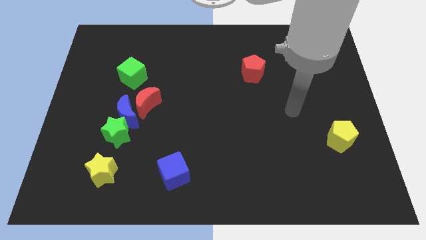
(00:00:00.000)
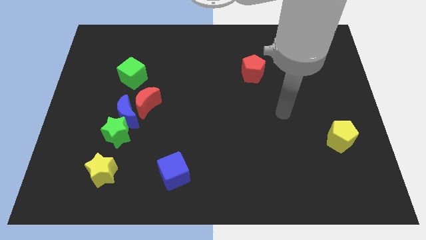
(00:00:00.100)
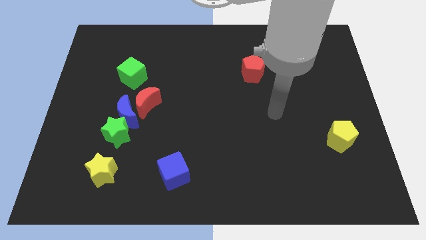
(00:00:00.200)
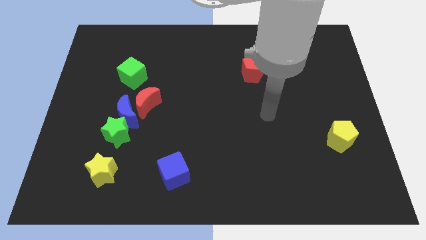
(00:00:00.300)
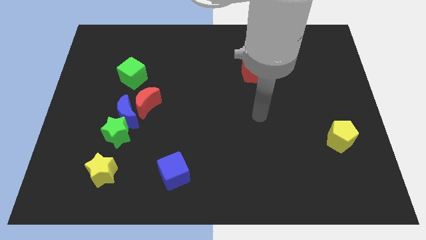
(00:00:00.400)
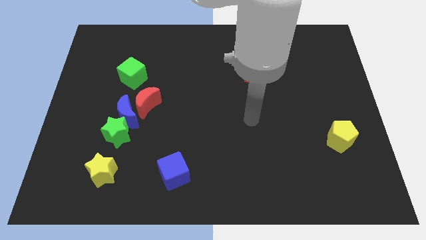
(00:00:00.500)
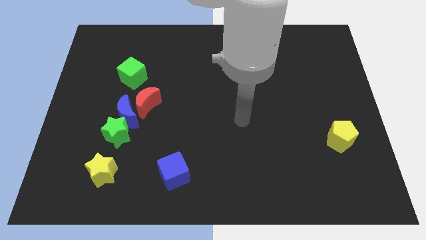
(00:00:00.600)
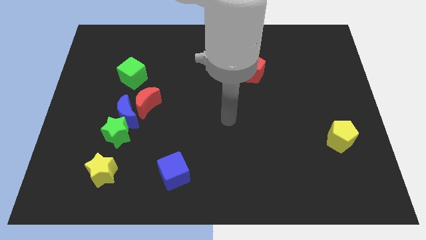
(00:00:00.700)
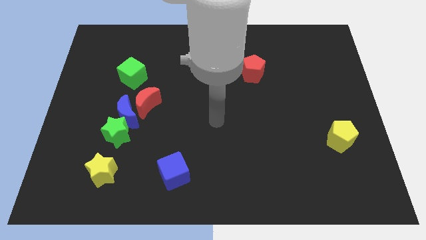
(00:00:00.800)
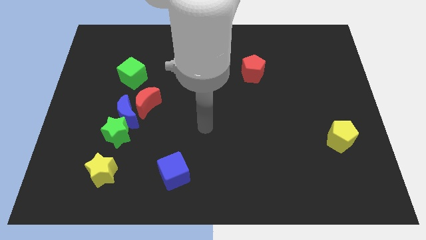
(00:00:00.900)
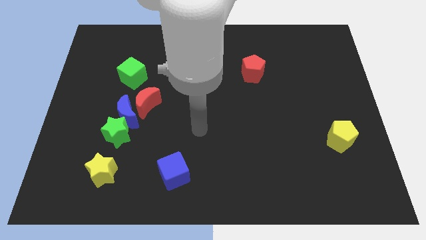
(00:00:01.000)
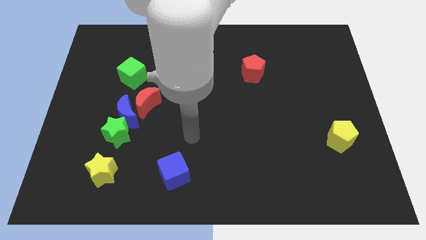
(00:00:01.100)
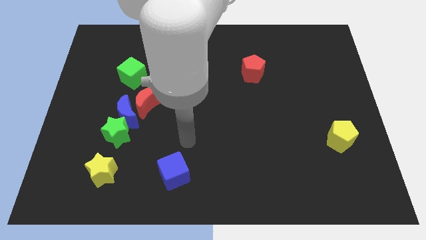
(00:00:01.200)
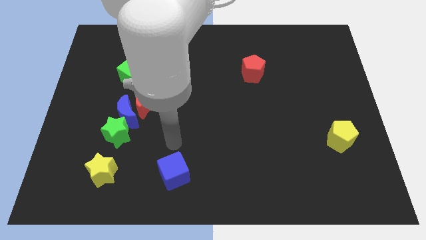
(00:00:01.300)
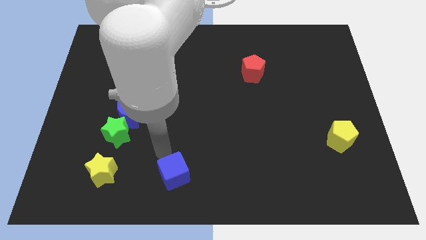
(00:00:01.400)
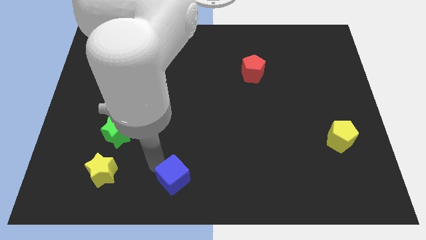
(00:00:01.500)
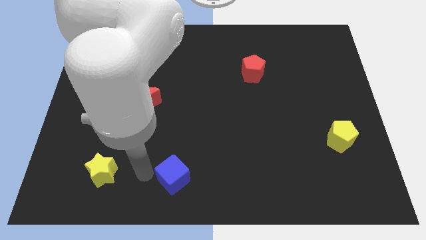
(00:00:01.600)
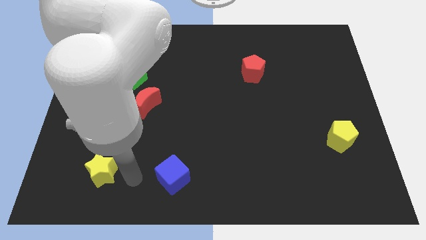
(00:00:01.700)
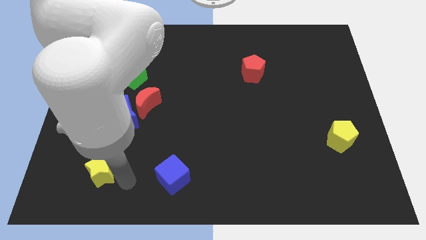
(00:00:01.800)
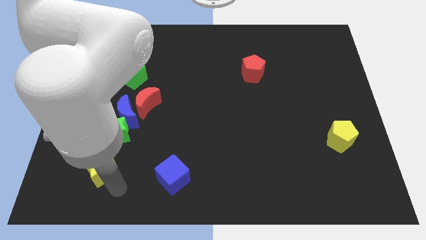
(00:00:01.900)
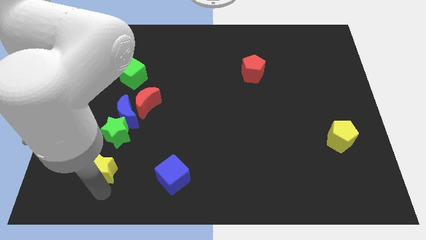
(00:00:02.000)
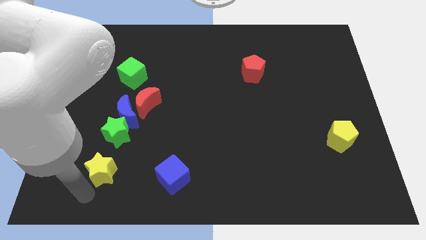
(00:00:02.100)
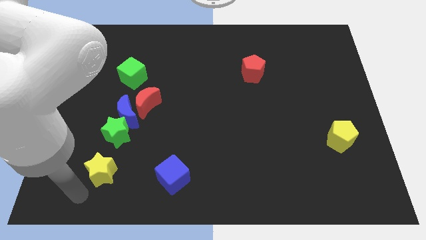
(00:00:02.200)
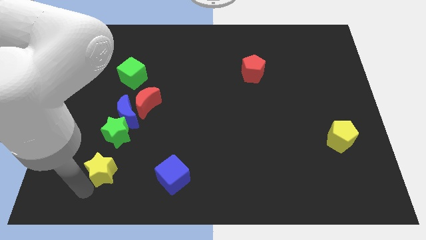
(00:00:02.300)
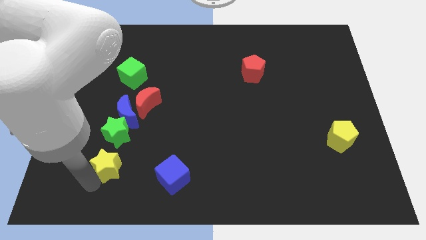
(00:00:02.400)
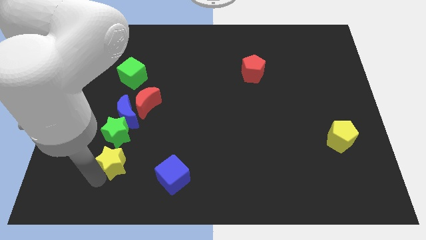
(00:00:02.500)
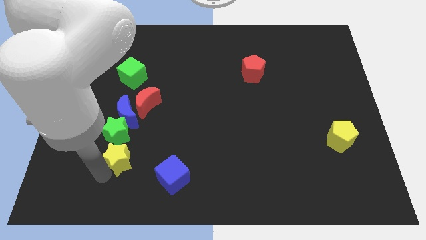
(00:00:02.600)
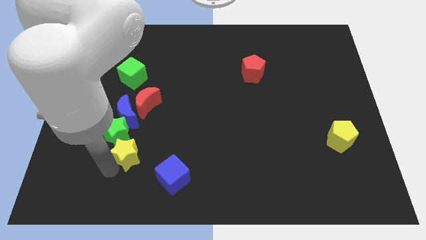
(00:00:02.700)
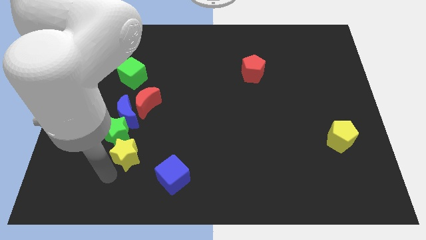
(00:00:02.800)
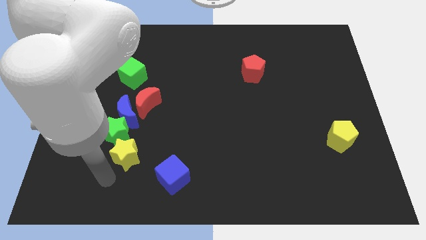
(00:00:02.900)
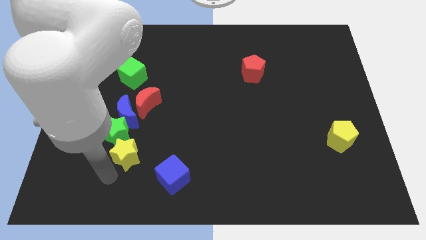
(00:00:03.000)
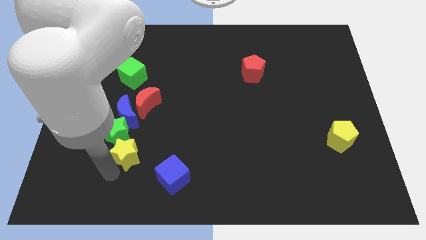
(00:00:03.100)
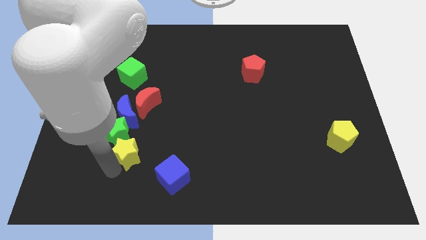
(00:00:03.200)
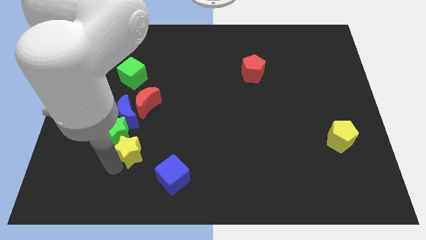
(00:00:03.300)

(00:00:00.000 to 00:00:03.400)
slide the yellow star slightly upwards and to the right

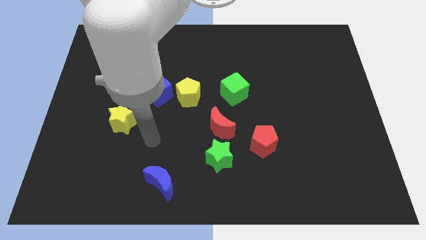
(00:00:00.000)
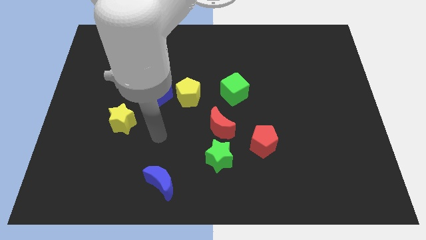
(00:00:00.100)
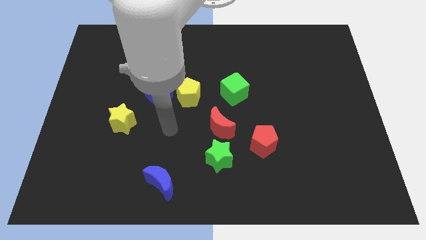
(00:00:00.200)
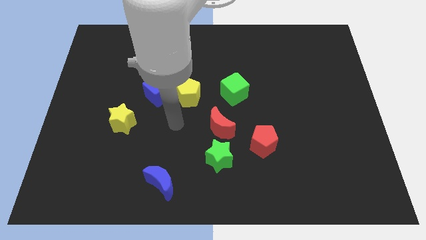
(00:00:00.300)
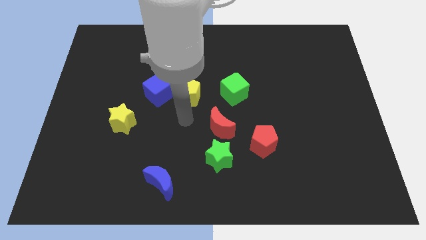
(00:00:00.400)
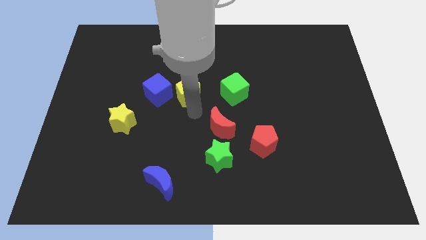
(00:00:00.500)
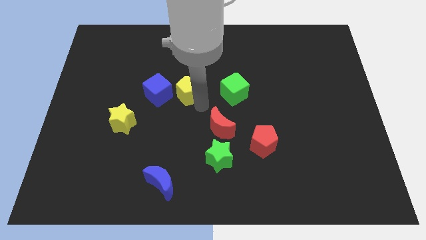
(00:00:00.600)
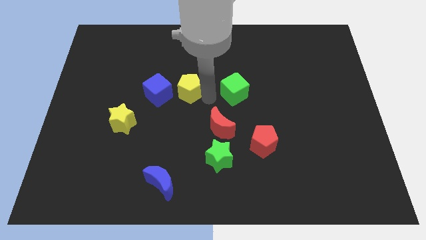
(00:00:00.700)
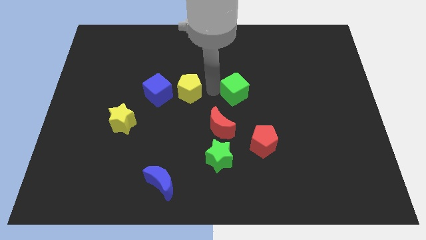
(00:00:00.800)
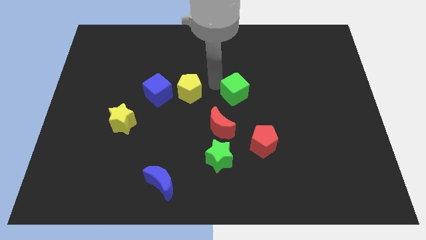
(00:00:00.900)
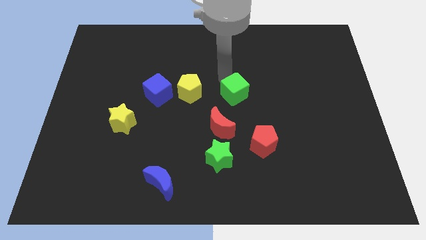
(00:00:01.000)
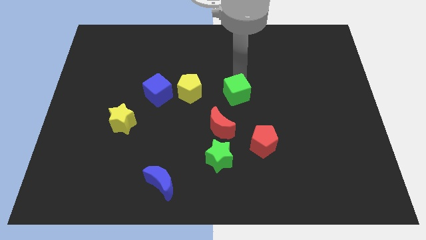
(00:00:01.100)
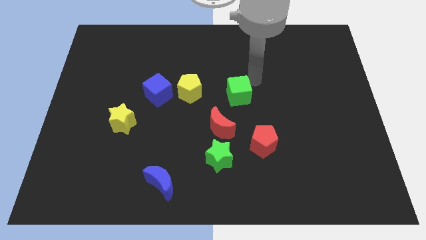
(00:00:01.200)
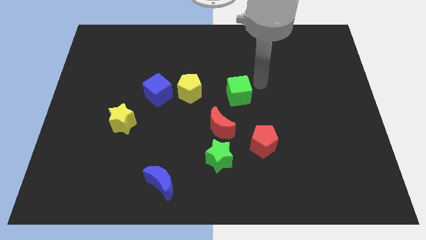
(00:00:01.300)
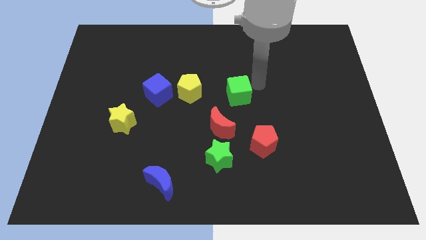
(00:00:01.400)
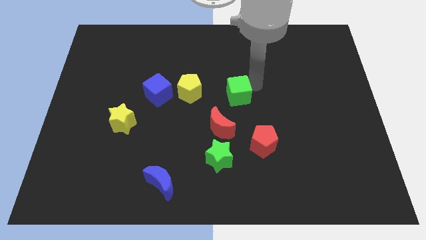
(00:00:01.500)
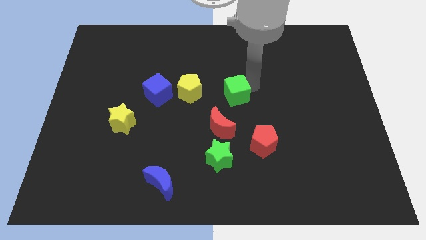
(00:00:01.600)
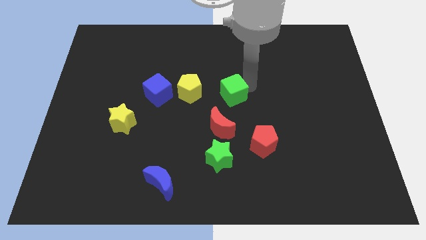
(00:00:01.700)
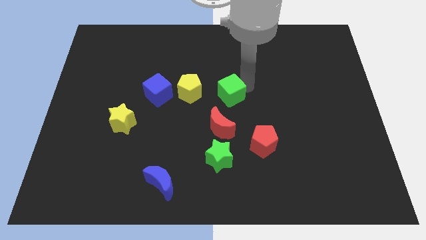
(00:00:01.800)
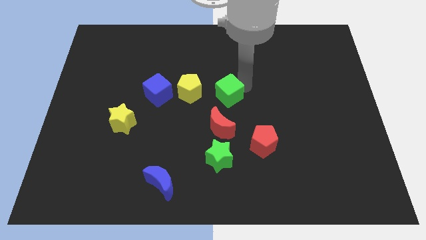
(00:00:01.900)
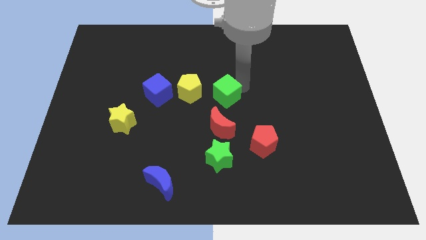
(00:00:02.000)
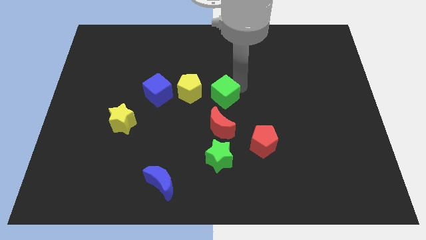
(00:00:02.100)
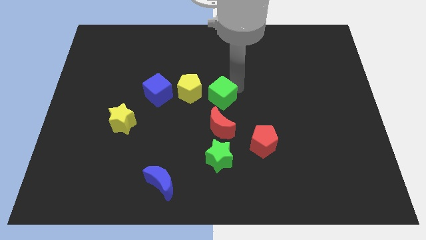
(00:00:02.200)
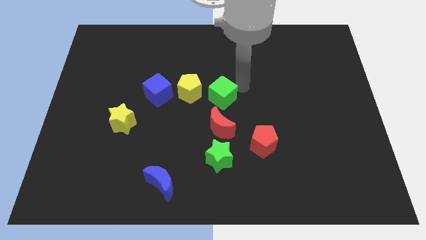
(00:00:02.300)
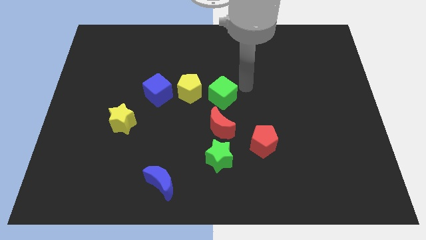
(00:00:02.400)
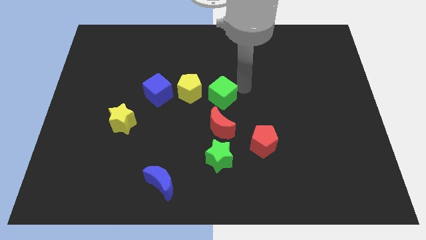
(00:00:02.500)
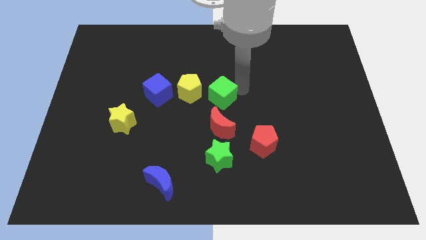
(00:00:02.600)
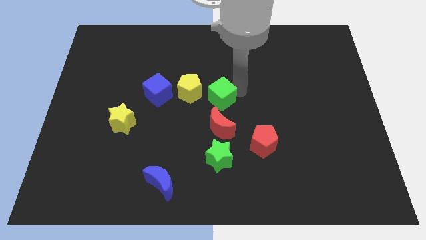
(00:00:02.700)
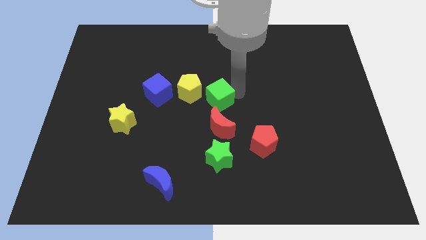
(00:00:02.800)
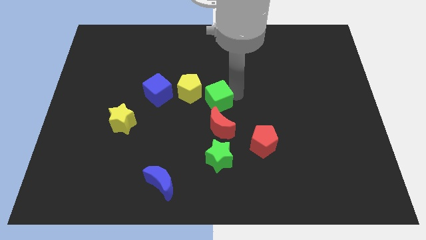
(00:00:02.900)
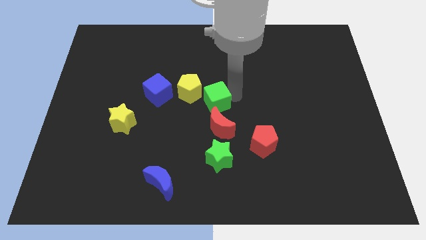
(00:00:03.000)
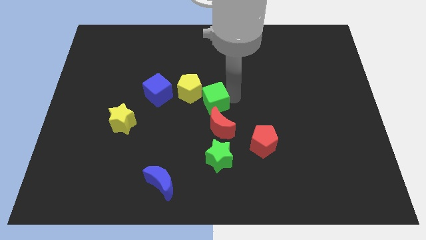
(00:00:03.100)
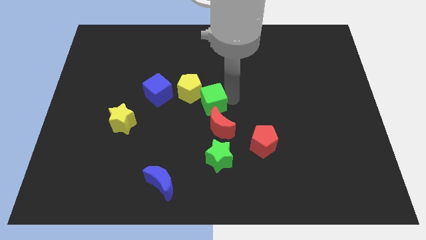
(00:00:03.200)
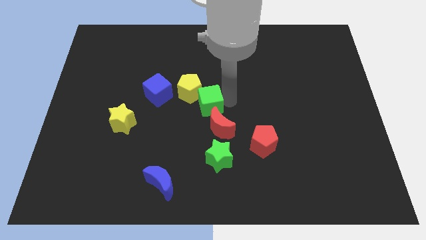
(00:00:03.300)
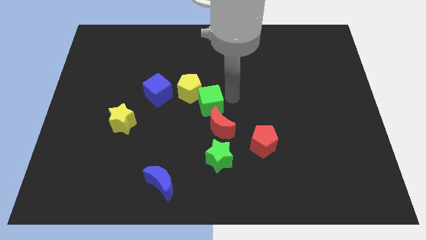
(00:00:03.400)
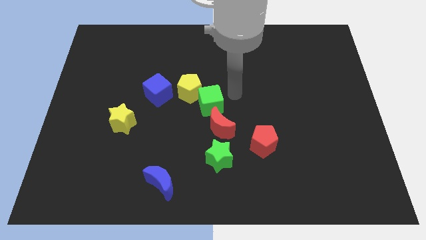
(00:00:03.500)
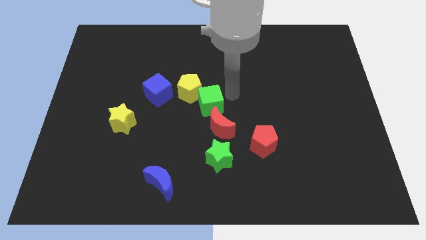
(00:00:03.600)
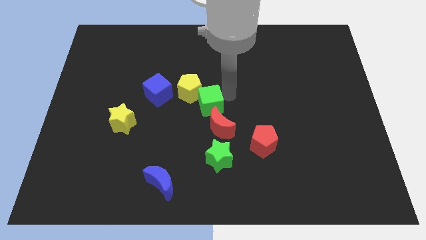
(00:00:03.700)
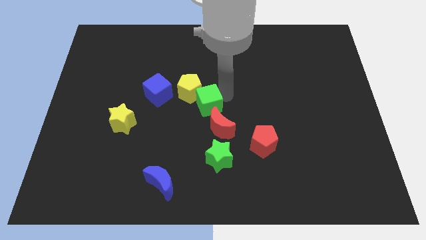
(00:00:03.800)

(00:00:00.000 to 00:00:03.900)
slightly slide the green cube downwards and left

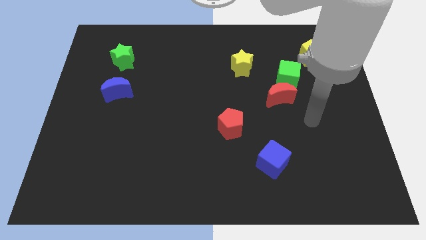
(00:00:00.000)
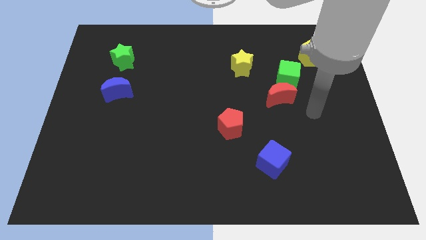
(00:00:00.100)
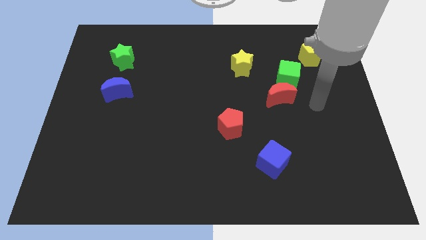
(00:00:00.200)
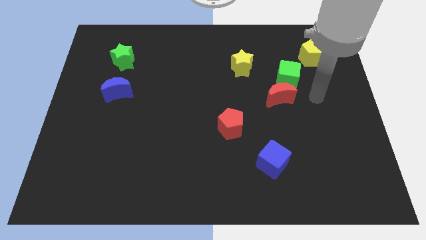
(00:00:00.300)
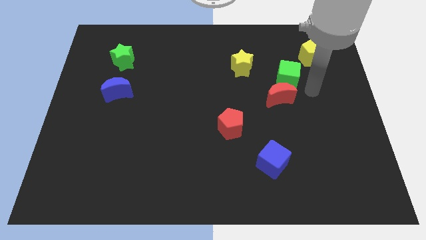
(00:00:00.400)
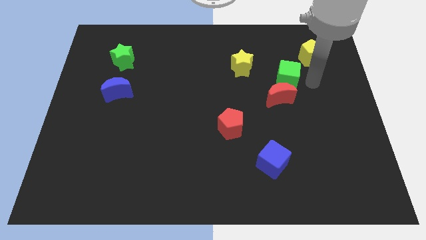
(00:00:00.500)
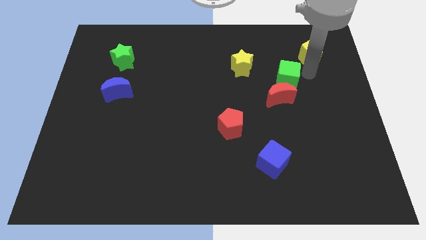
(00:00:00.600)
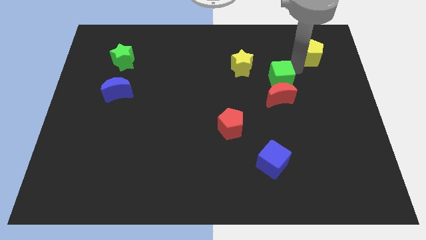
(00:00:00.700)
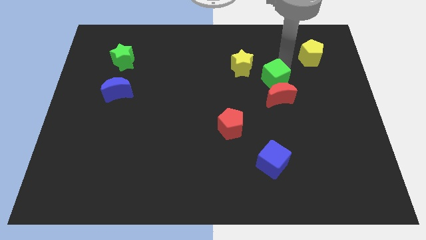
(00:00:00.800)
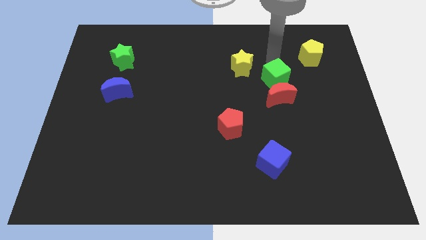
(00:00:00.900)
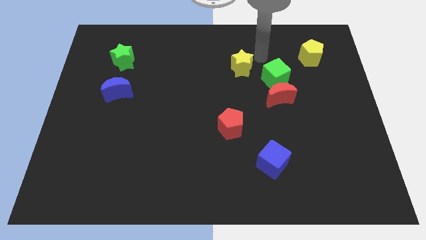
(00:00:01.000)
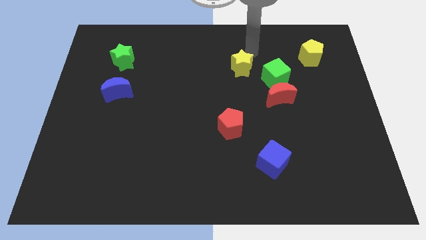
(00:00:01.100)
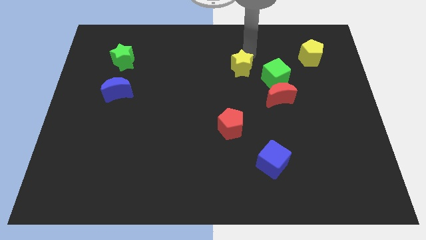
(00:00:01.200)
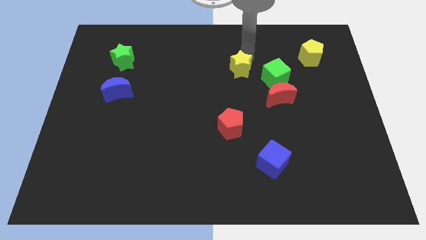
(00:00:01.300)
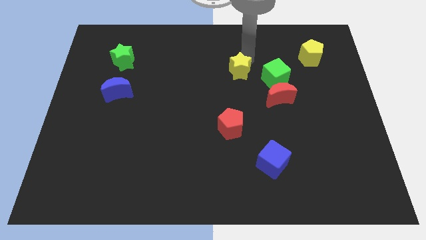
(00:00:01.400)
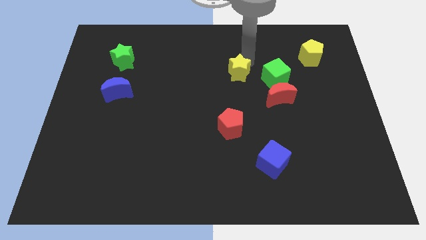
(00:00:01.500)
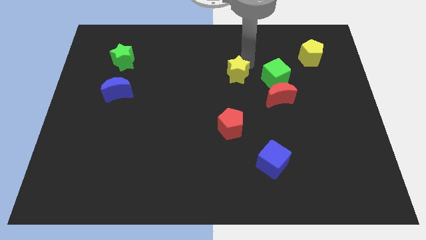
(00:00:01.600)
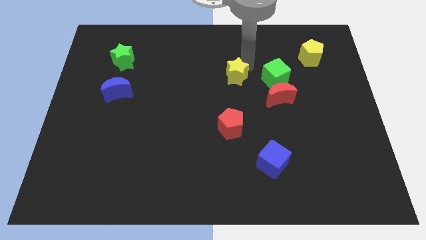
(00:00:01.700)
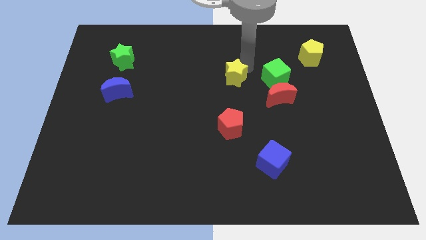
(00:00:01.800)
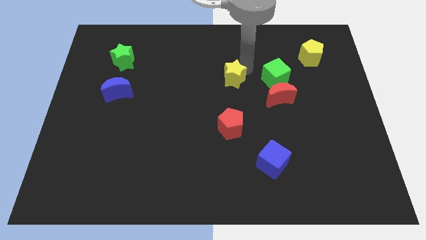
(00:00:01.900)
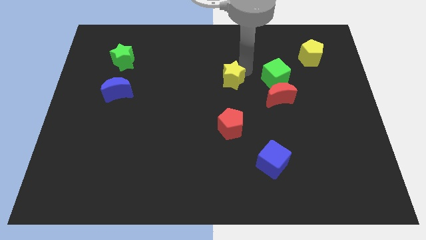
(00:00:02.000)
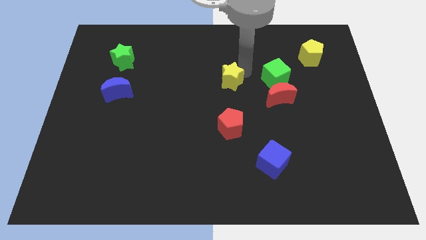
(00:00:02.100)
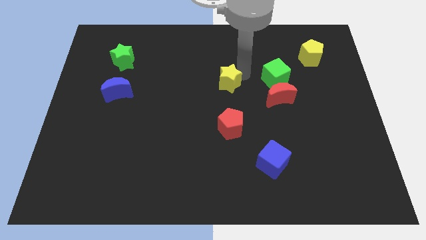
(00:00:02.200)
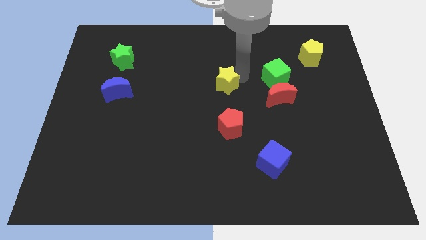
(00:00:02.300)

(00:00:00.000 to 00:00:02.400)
slightly push the yellow star down and left diagonally
